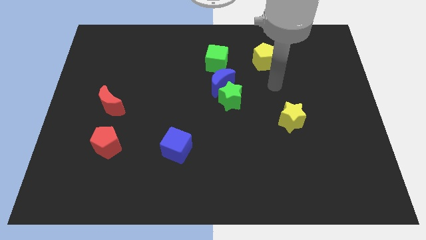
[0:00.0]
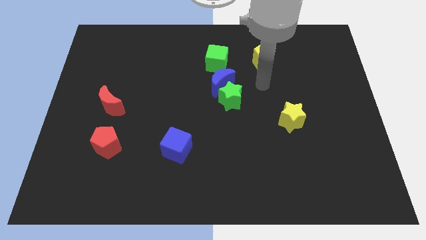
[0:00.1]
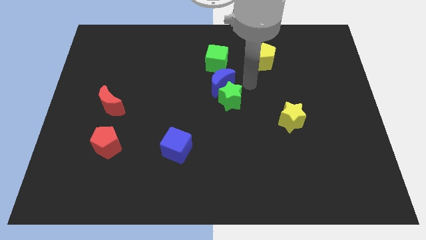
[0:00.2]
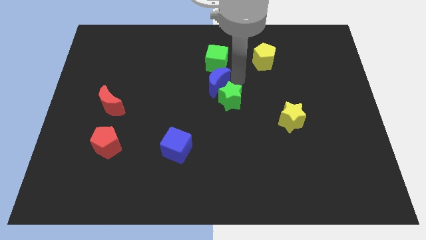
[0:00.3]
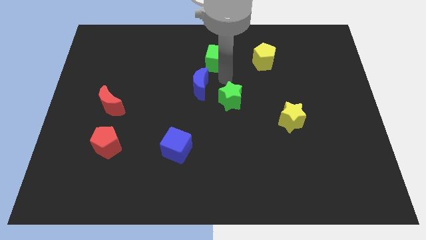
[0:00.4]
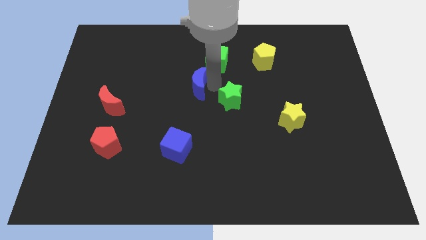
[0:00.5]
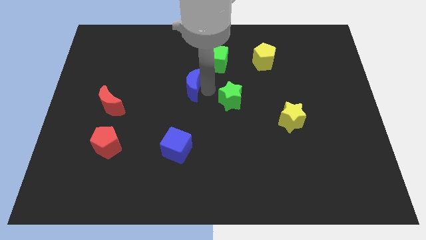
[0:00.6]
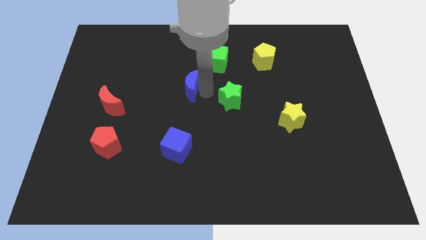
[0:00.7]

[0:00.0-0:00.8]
separate the green star from the blue moon

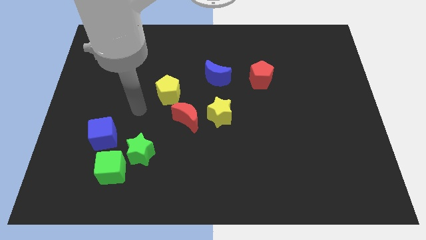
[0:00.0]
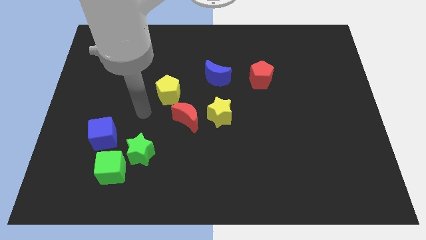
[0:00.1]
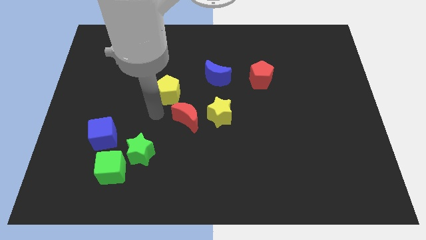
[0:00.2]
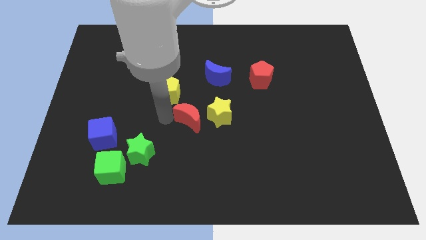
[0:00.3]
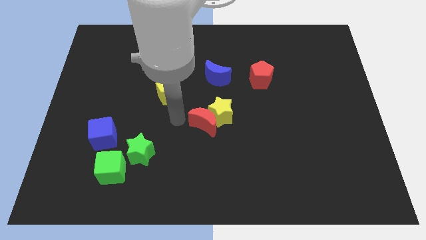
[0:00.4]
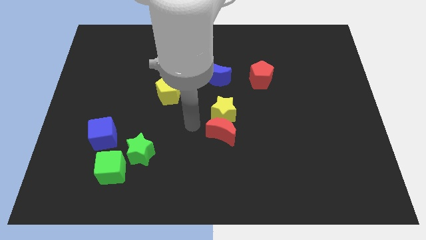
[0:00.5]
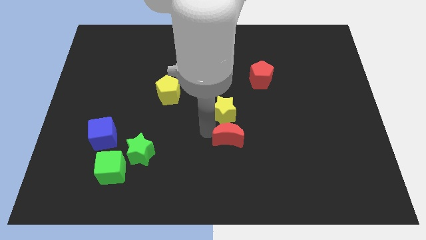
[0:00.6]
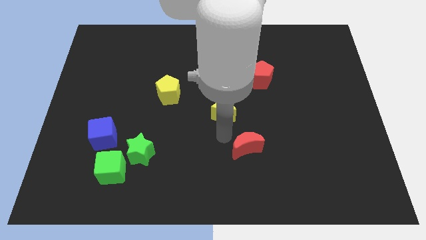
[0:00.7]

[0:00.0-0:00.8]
pull the yellow star apart from the red moon

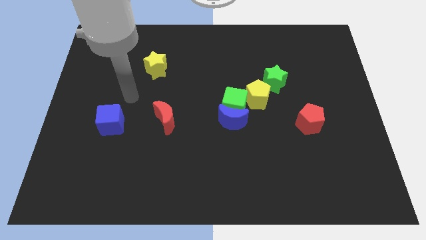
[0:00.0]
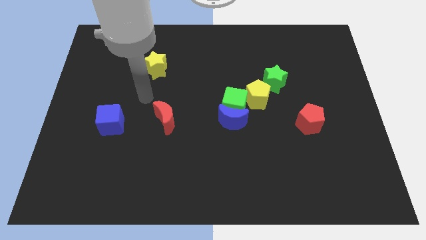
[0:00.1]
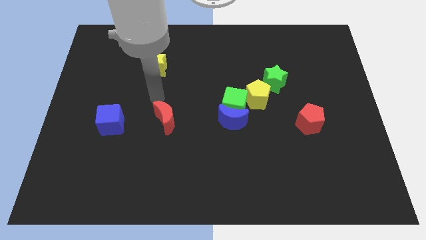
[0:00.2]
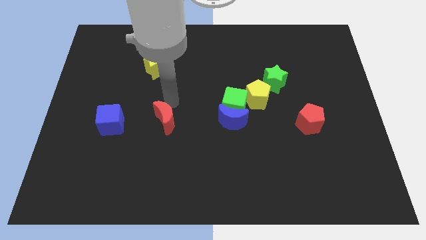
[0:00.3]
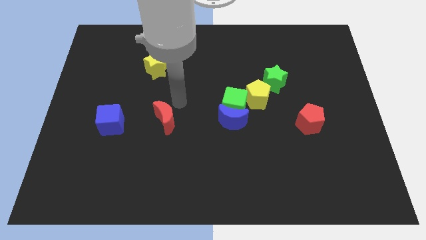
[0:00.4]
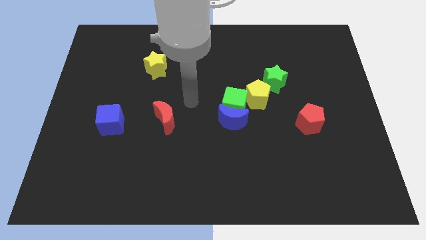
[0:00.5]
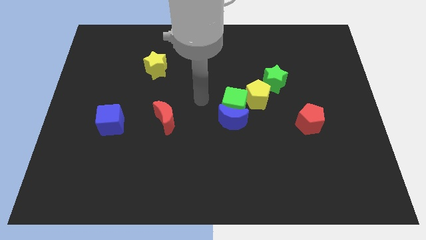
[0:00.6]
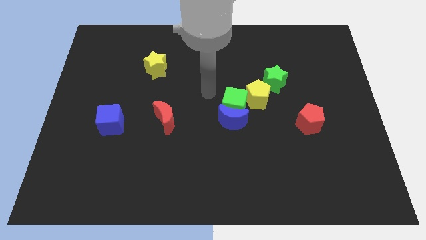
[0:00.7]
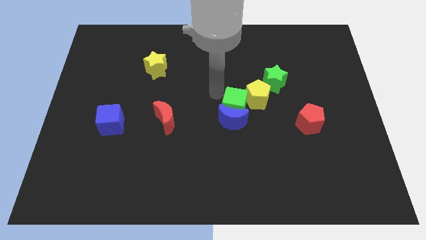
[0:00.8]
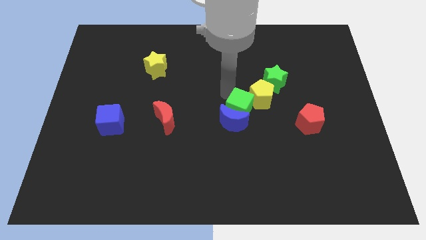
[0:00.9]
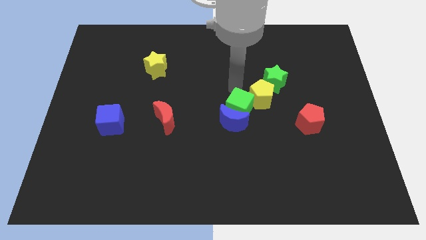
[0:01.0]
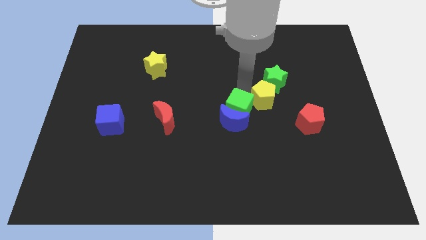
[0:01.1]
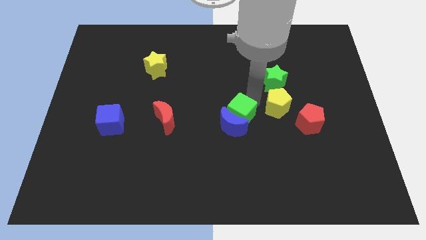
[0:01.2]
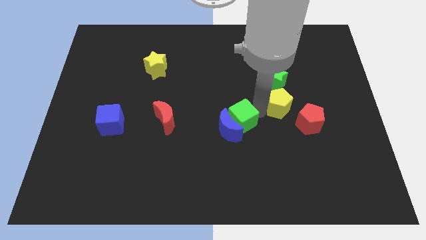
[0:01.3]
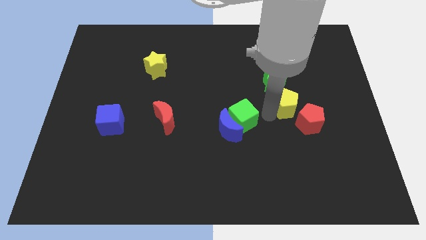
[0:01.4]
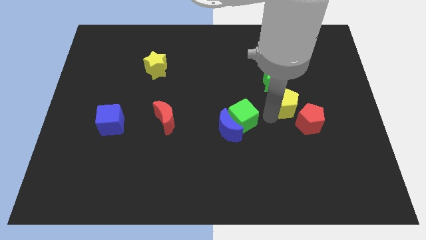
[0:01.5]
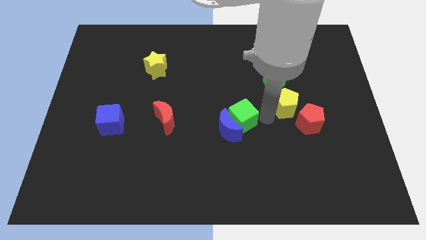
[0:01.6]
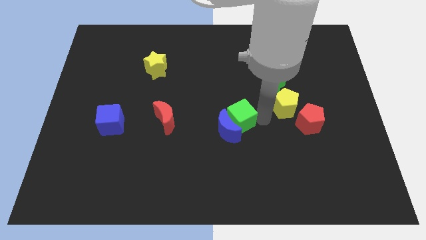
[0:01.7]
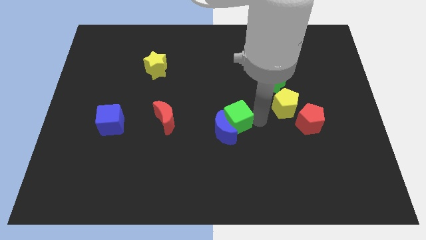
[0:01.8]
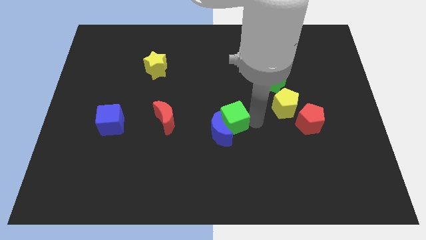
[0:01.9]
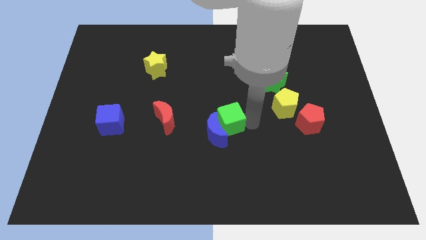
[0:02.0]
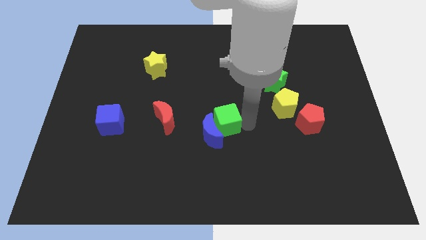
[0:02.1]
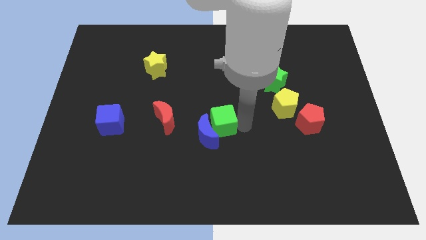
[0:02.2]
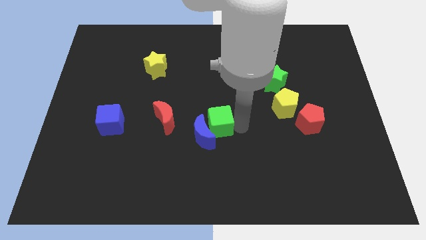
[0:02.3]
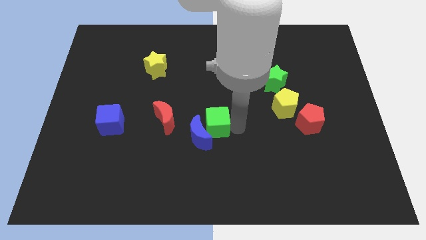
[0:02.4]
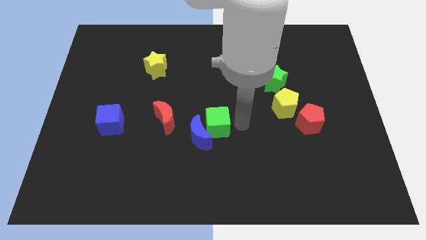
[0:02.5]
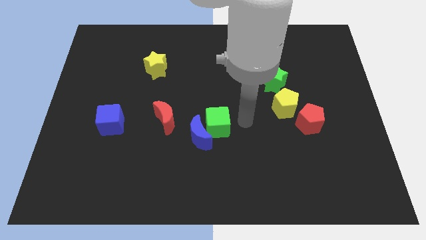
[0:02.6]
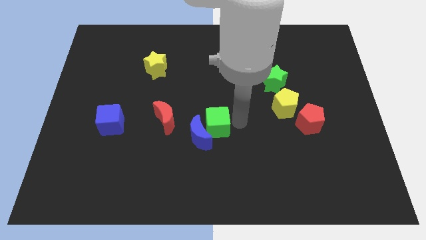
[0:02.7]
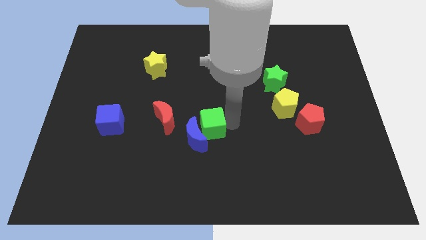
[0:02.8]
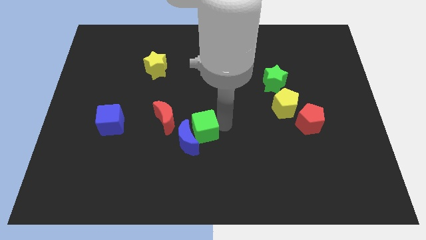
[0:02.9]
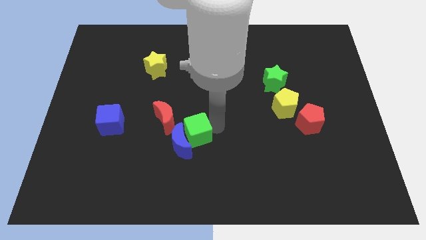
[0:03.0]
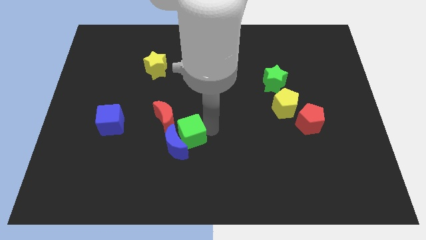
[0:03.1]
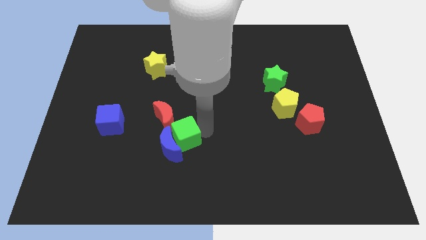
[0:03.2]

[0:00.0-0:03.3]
pull the green cube apart from the blue moon and yellow pentagon

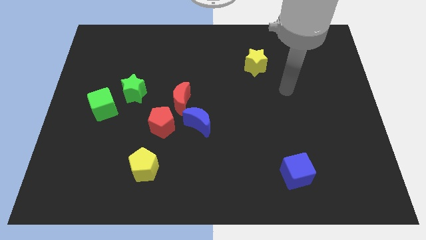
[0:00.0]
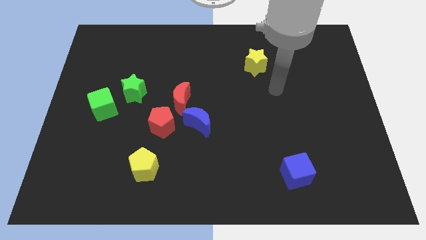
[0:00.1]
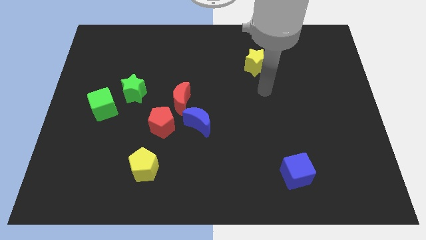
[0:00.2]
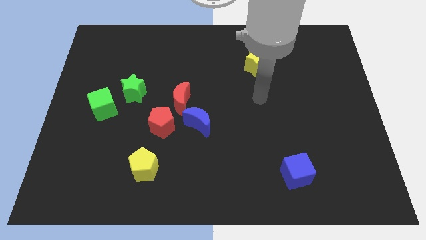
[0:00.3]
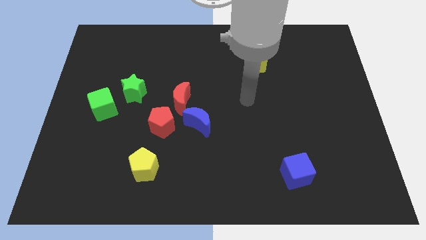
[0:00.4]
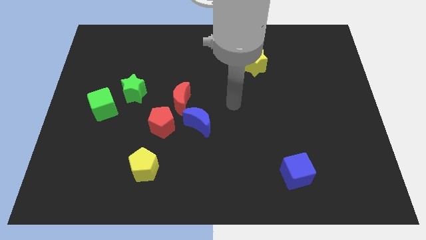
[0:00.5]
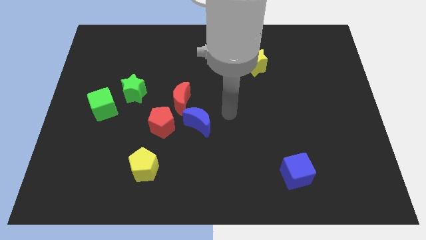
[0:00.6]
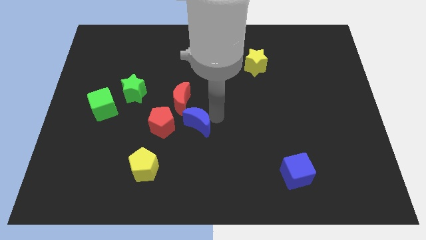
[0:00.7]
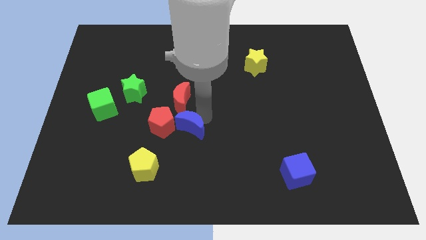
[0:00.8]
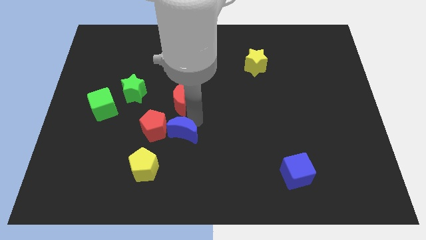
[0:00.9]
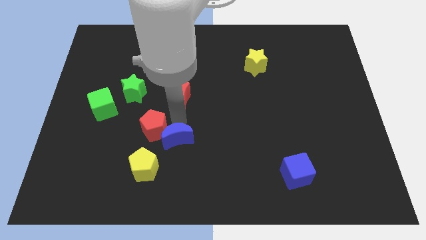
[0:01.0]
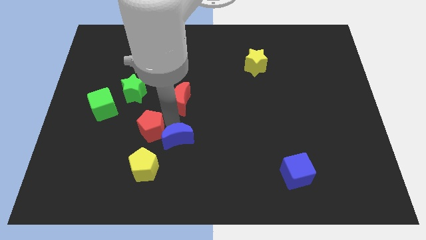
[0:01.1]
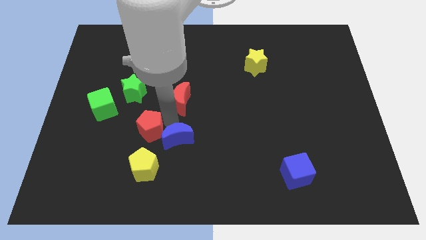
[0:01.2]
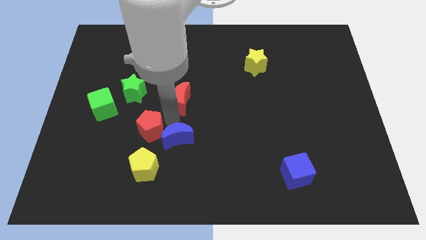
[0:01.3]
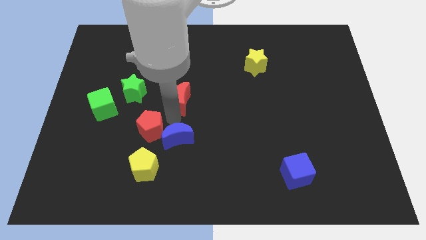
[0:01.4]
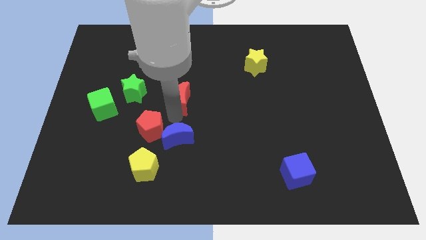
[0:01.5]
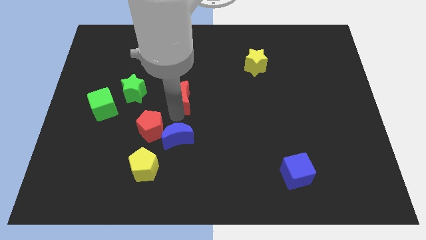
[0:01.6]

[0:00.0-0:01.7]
separate the red moon from the blue moon and red pentagon

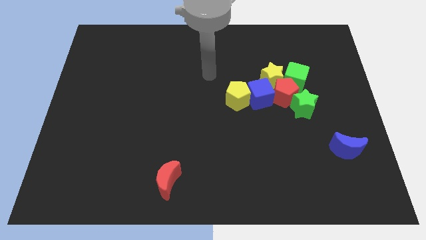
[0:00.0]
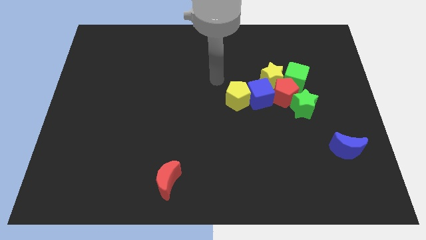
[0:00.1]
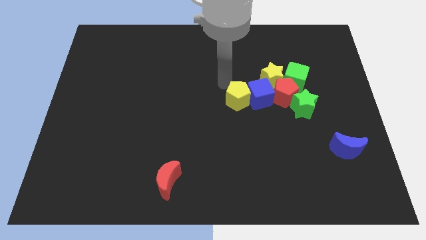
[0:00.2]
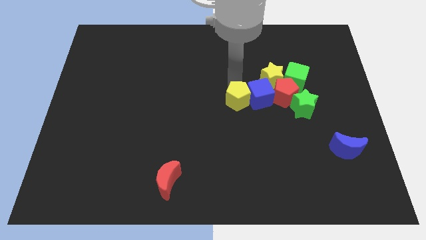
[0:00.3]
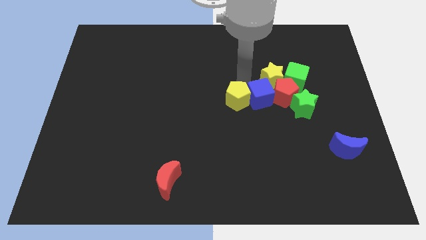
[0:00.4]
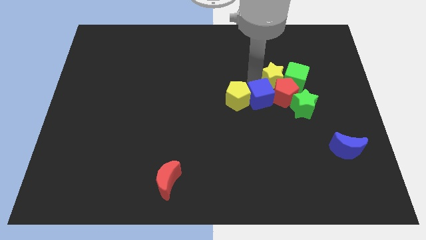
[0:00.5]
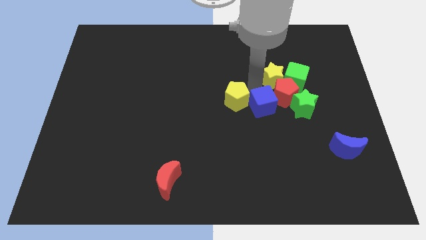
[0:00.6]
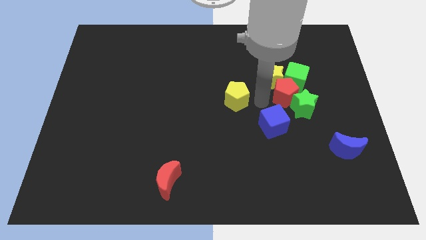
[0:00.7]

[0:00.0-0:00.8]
separate the yellow pentagon from the blue cube

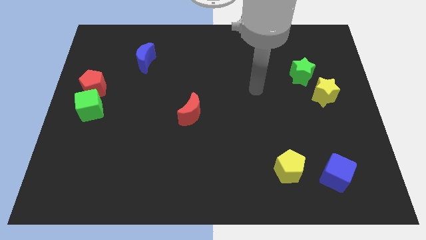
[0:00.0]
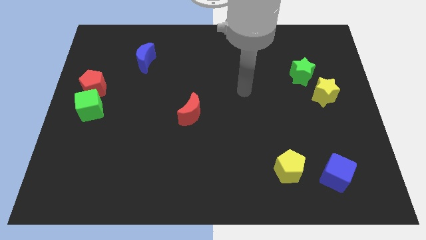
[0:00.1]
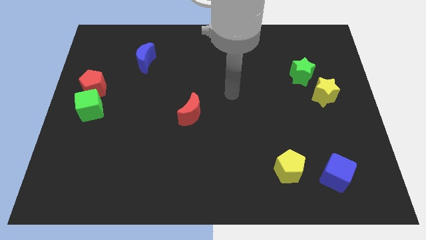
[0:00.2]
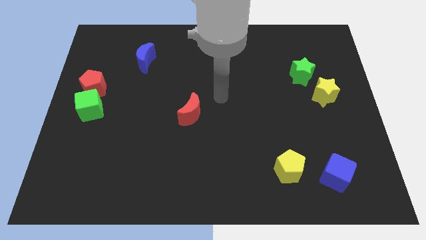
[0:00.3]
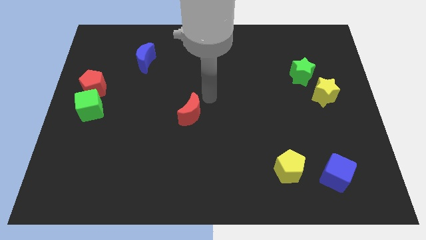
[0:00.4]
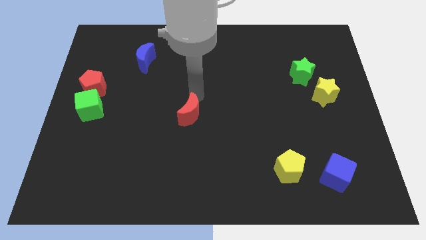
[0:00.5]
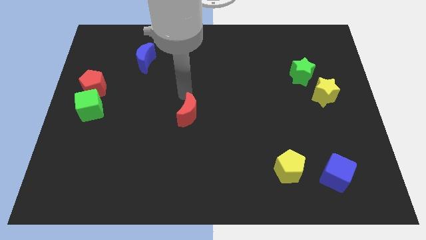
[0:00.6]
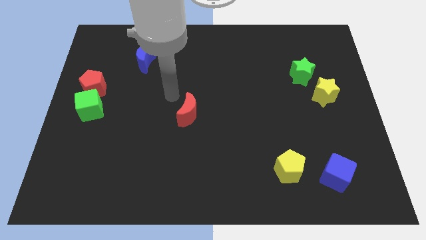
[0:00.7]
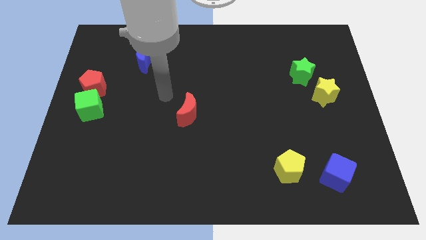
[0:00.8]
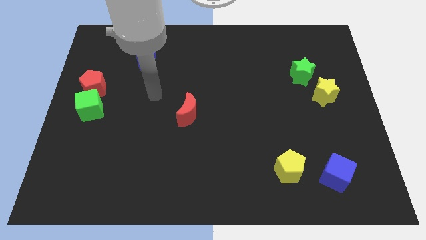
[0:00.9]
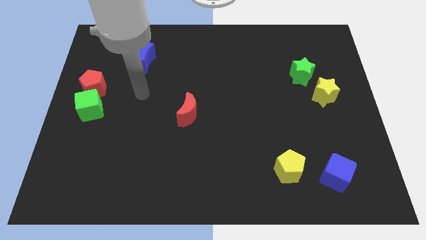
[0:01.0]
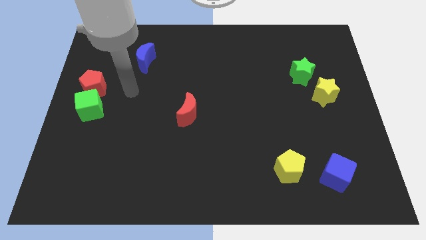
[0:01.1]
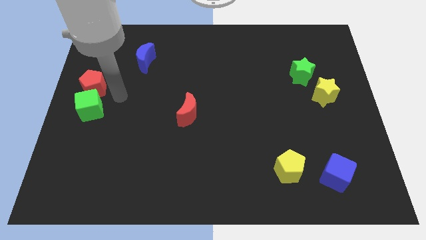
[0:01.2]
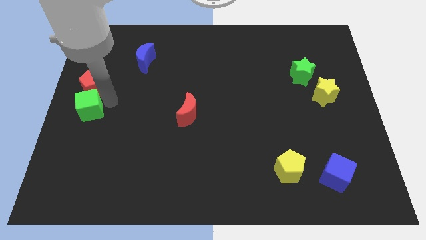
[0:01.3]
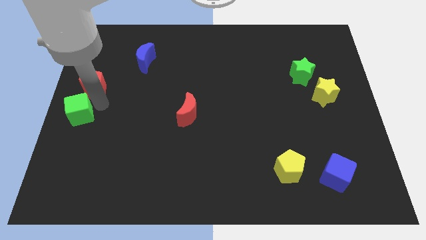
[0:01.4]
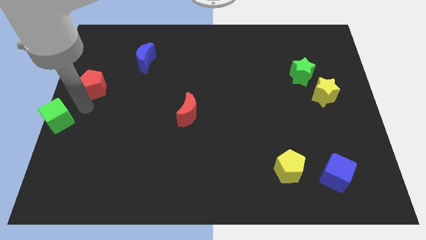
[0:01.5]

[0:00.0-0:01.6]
separate the red pentagon from the green cube

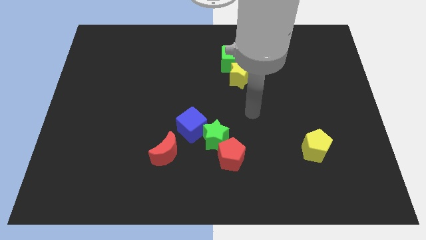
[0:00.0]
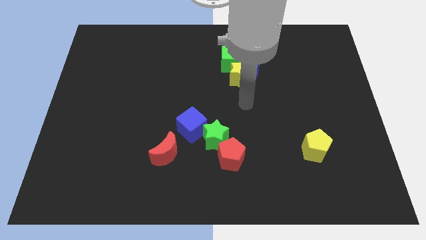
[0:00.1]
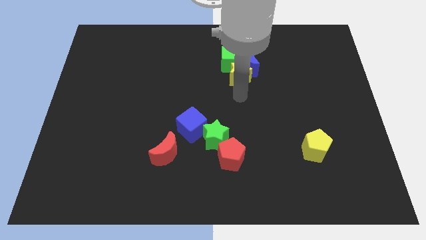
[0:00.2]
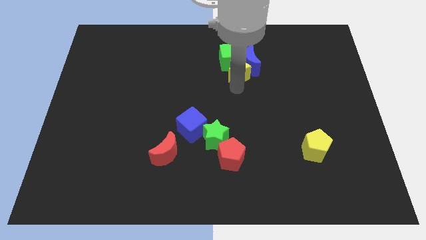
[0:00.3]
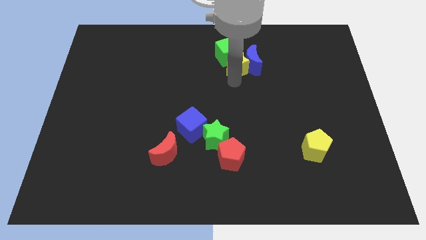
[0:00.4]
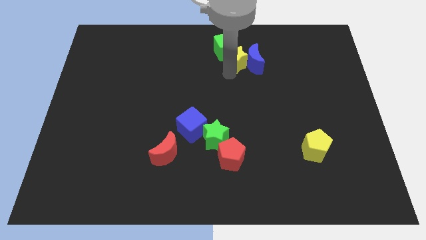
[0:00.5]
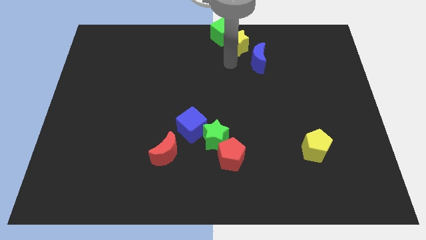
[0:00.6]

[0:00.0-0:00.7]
pull the blue moon apart from the green cube and yellow star
